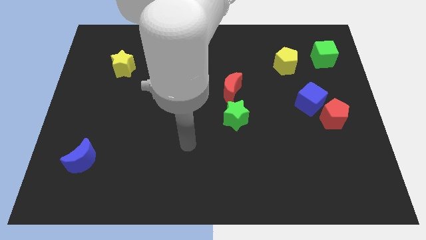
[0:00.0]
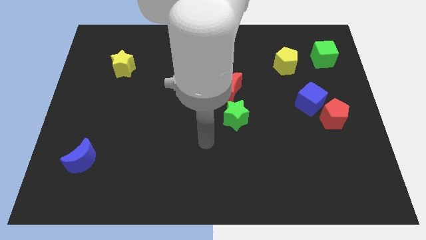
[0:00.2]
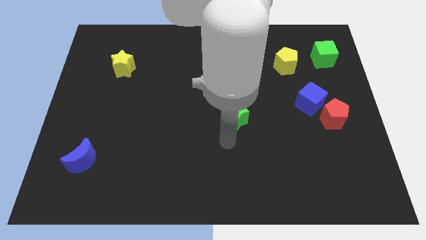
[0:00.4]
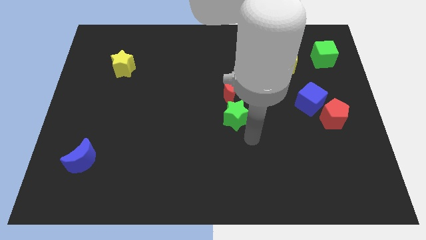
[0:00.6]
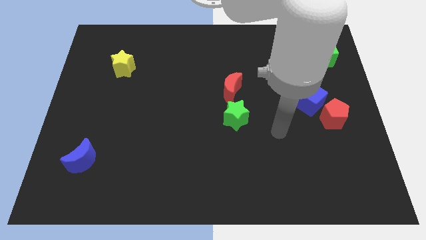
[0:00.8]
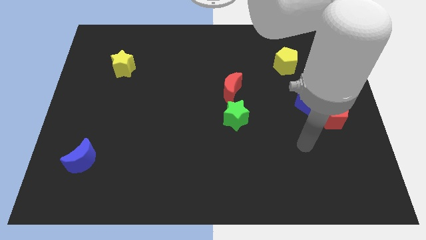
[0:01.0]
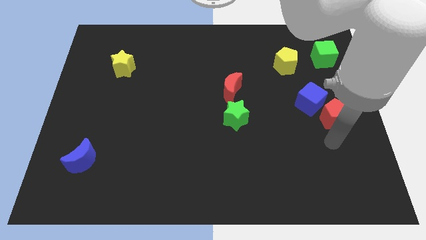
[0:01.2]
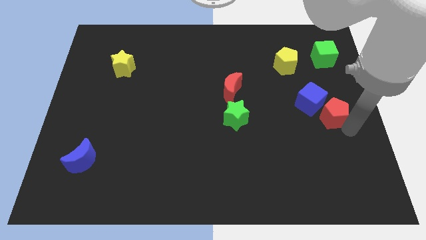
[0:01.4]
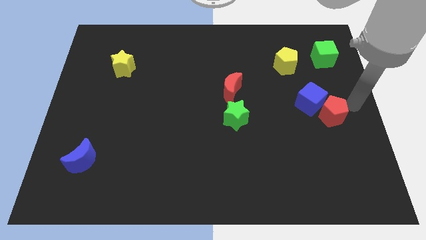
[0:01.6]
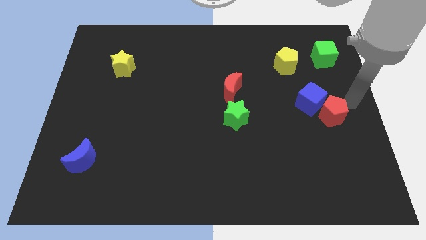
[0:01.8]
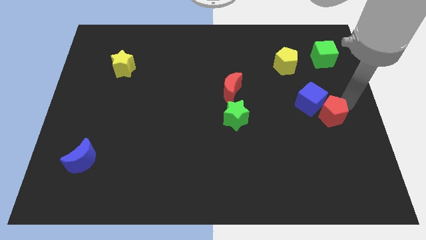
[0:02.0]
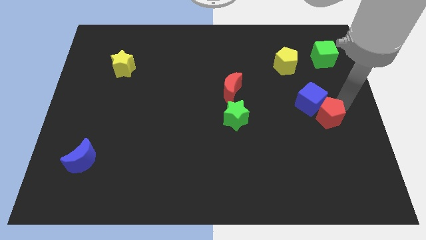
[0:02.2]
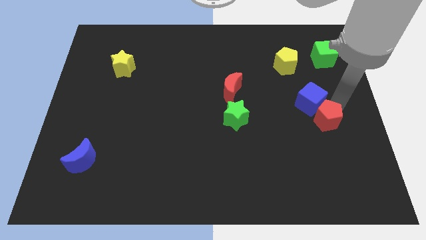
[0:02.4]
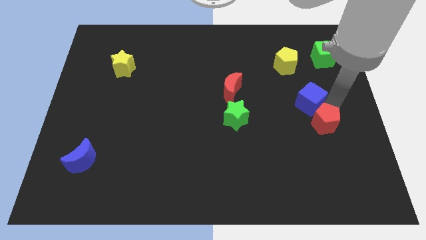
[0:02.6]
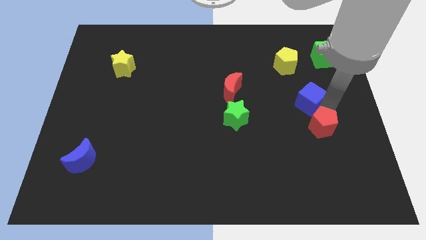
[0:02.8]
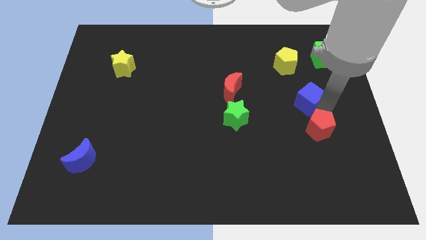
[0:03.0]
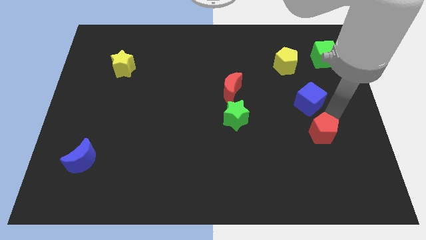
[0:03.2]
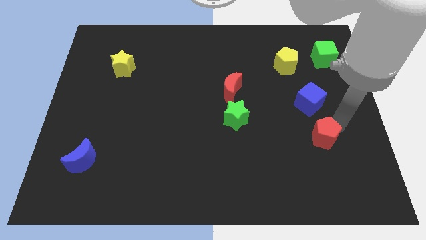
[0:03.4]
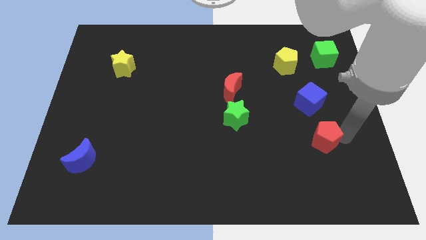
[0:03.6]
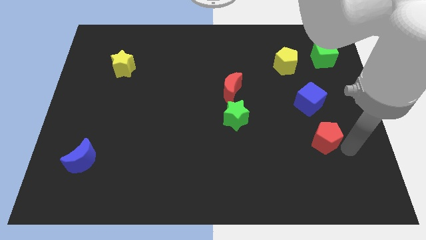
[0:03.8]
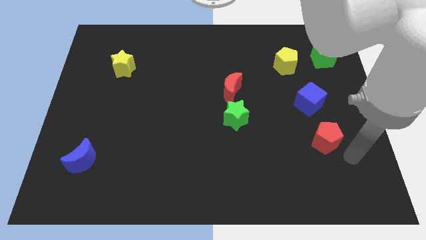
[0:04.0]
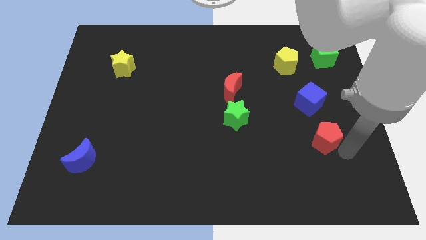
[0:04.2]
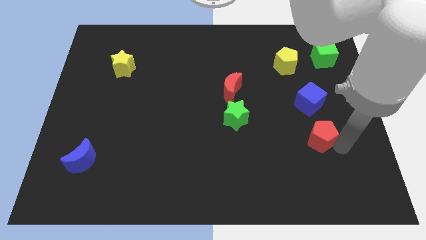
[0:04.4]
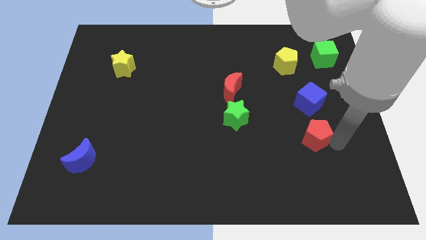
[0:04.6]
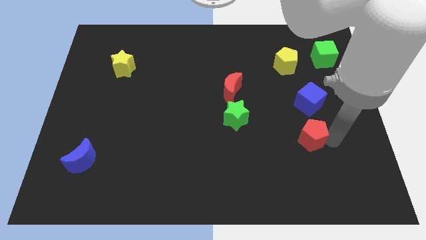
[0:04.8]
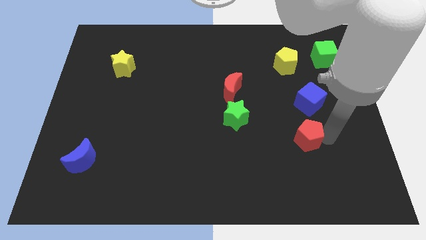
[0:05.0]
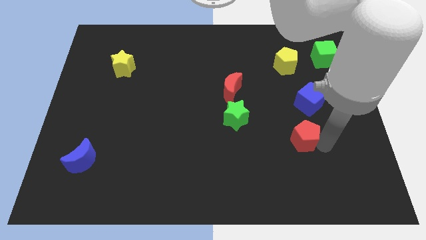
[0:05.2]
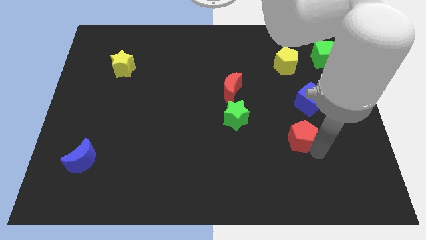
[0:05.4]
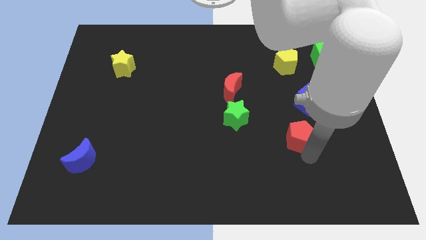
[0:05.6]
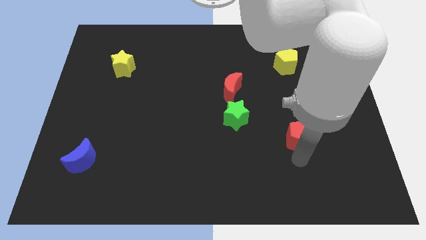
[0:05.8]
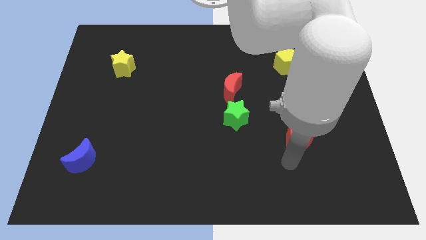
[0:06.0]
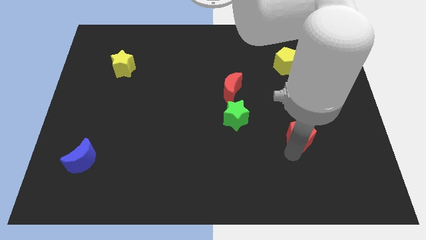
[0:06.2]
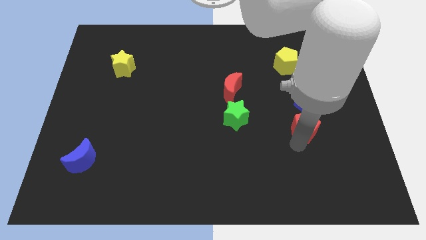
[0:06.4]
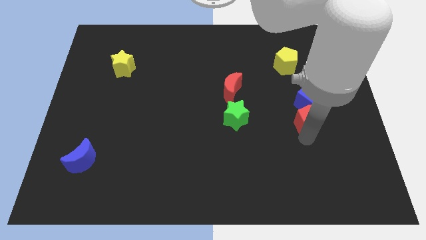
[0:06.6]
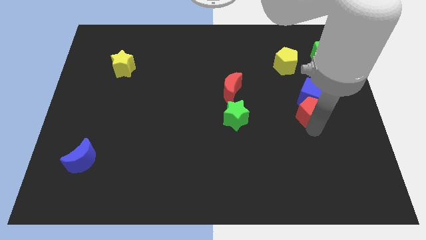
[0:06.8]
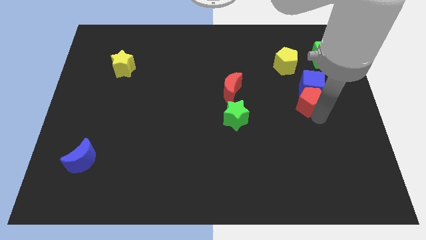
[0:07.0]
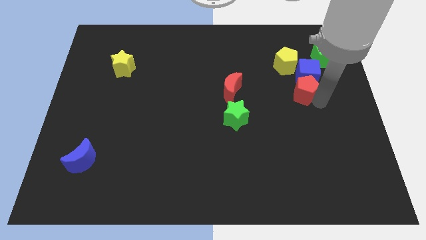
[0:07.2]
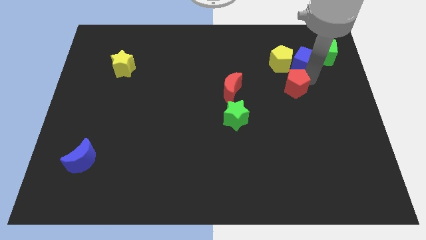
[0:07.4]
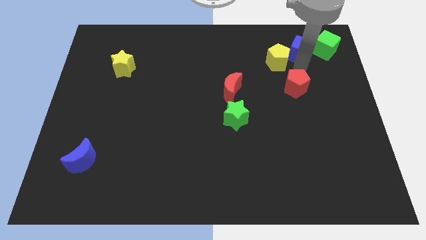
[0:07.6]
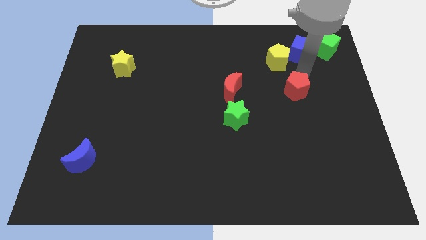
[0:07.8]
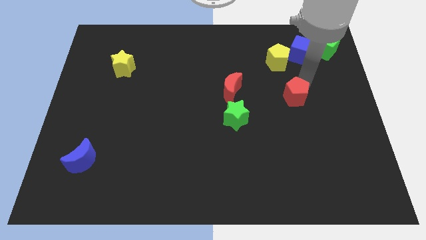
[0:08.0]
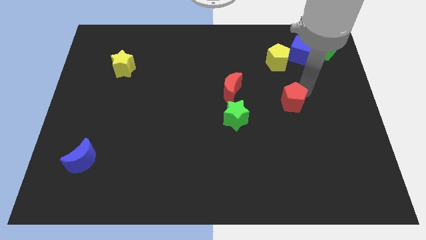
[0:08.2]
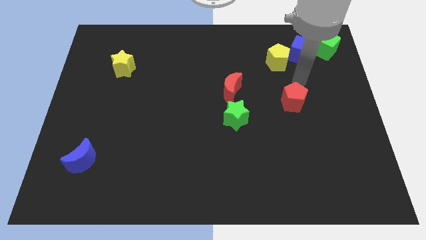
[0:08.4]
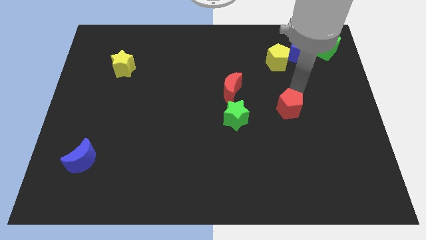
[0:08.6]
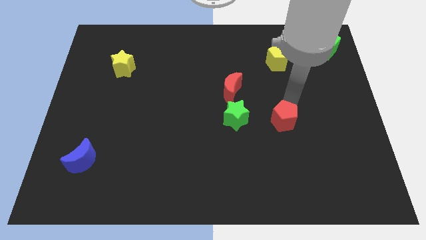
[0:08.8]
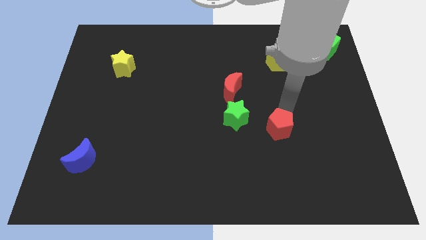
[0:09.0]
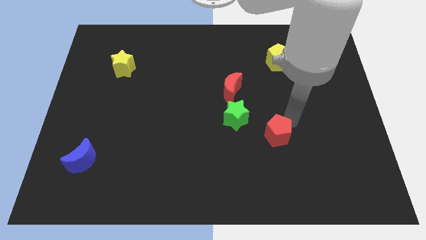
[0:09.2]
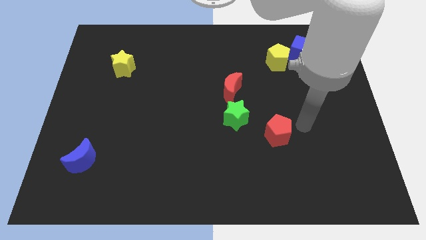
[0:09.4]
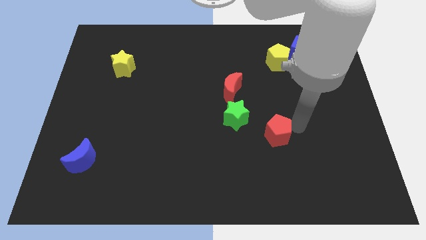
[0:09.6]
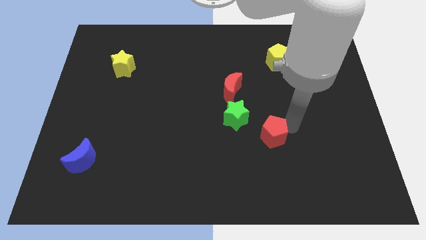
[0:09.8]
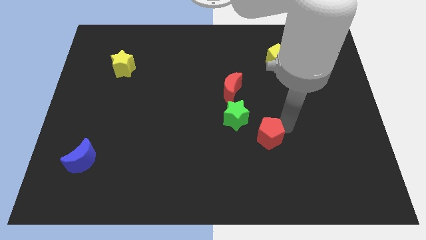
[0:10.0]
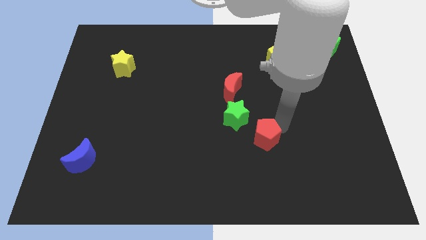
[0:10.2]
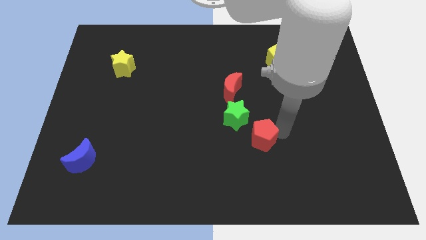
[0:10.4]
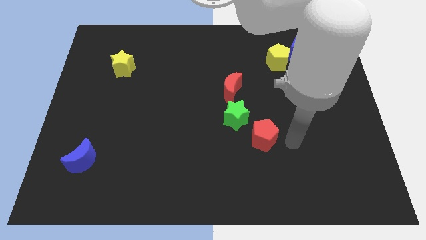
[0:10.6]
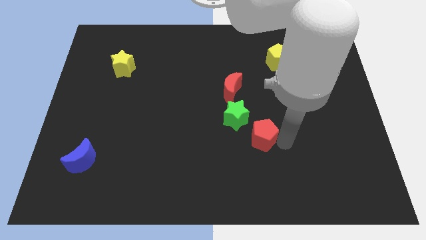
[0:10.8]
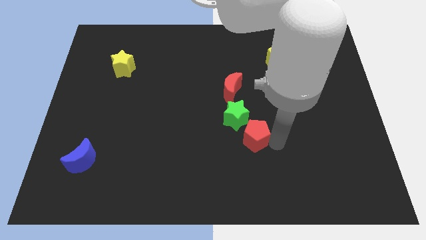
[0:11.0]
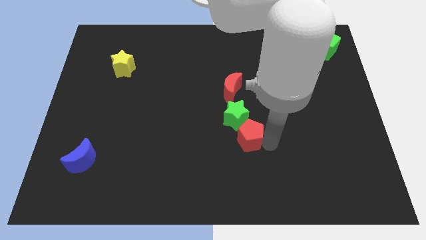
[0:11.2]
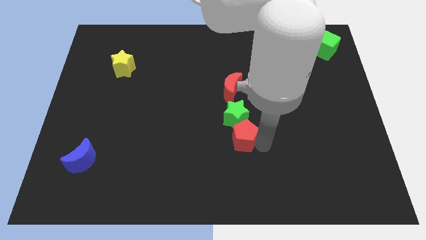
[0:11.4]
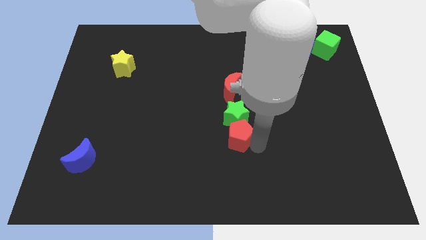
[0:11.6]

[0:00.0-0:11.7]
move the red pentagon to the bottom left of the green star

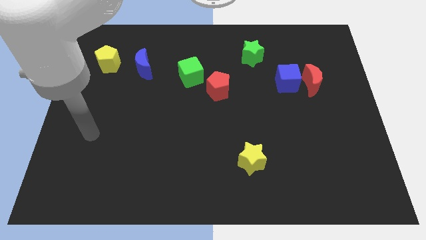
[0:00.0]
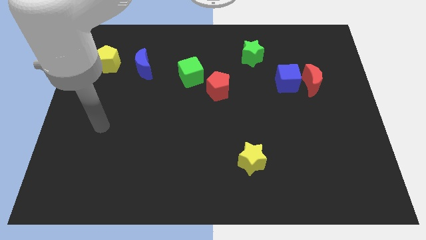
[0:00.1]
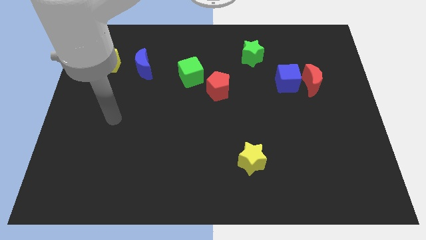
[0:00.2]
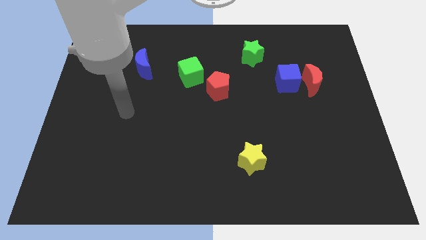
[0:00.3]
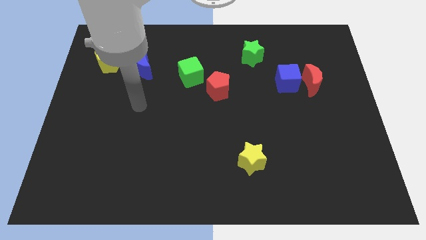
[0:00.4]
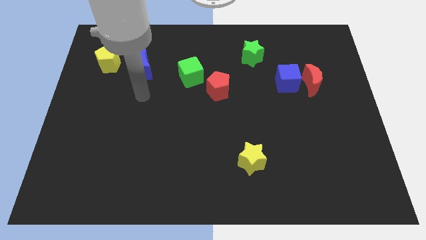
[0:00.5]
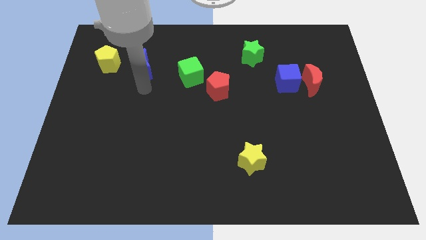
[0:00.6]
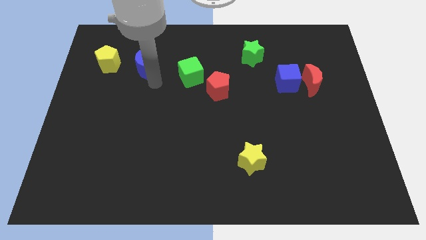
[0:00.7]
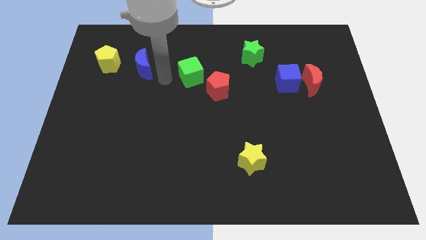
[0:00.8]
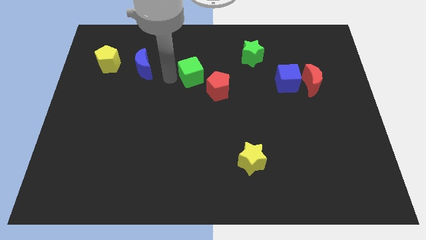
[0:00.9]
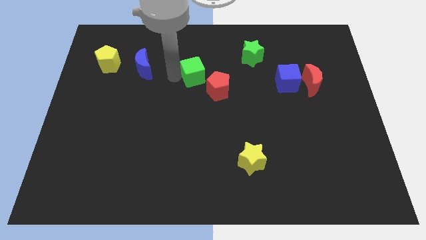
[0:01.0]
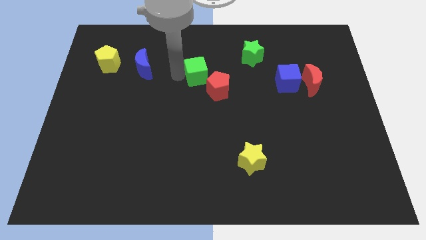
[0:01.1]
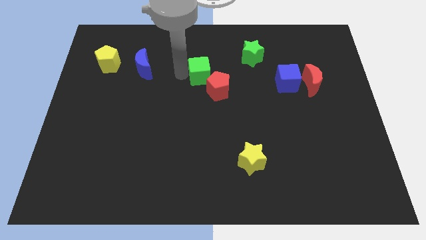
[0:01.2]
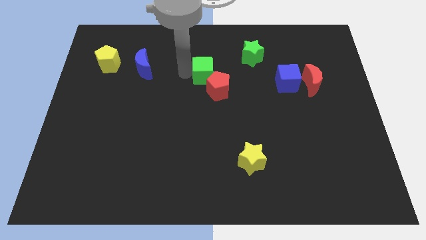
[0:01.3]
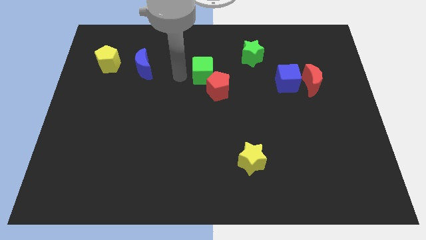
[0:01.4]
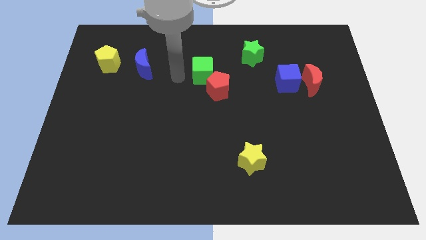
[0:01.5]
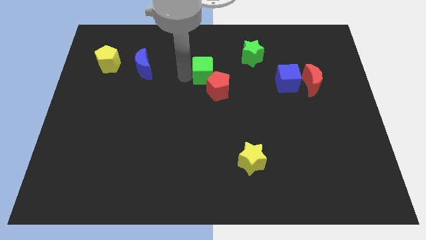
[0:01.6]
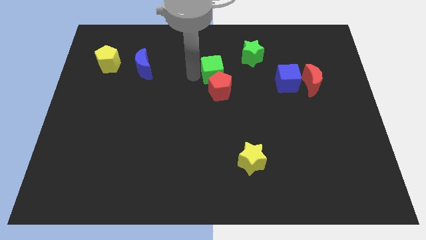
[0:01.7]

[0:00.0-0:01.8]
move the green cube to the bottom left of the green star
